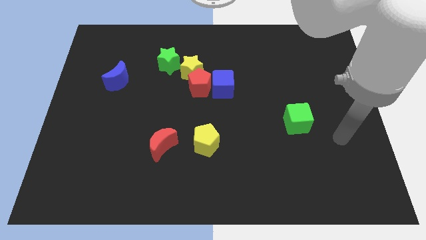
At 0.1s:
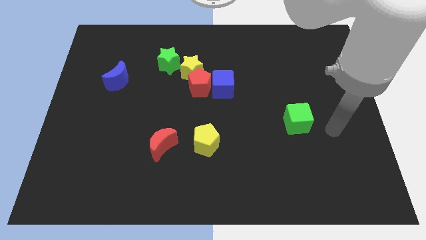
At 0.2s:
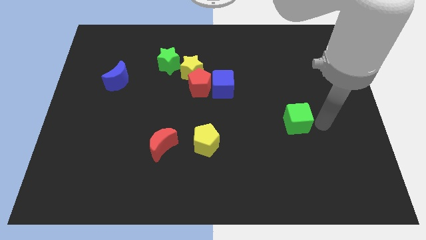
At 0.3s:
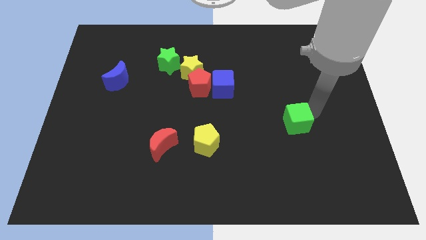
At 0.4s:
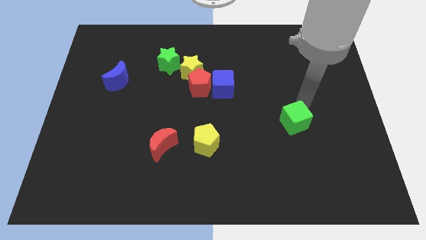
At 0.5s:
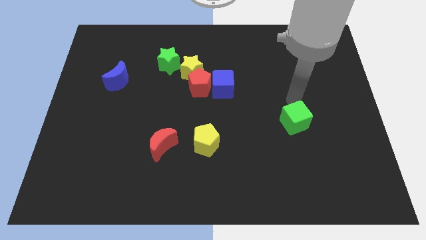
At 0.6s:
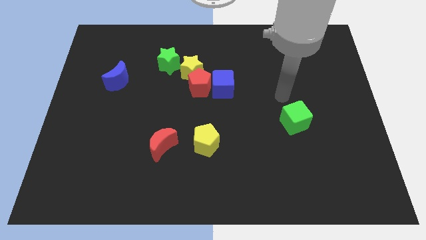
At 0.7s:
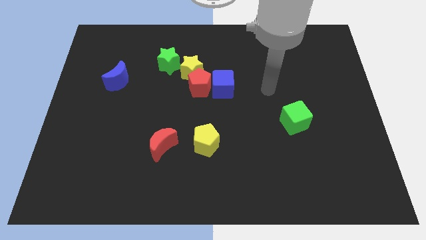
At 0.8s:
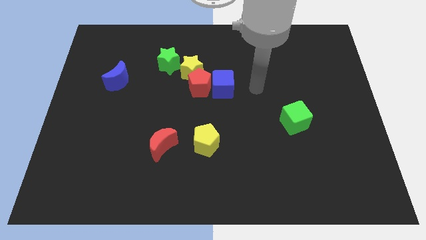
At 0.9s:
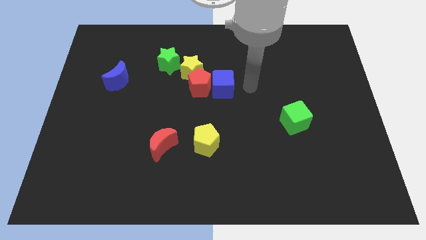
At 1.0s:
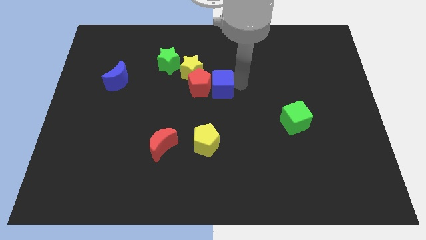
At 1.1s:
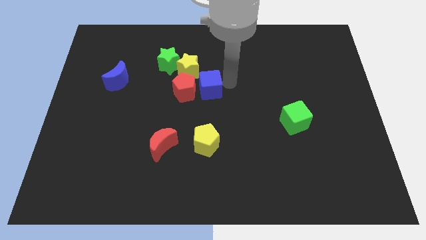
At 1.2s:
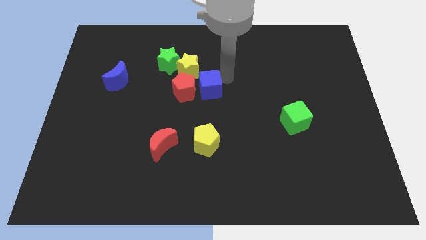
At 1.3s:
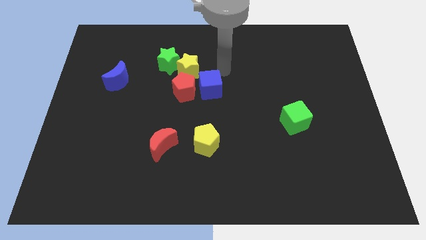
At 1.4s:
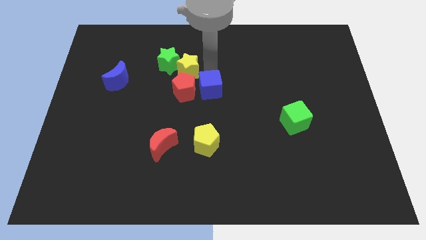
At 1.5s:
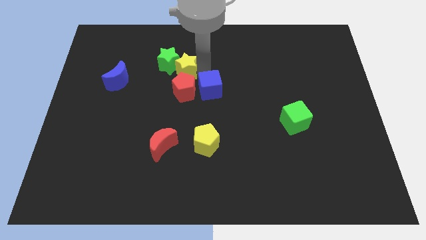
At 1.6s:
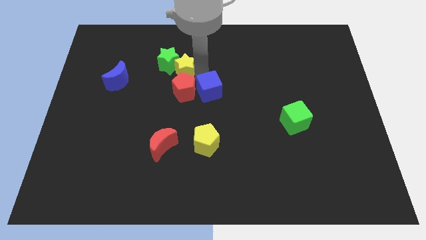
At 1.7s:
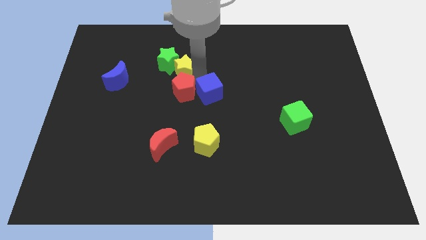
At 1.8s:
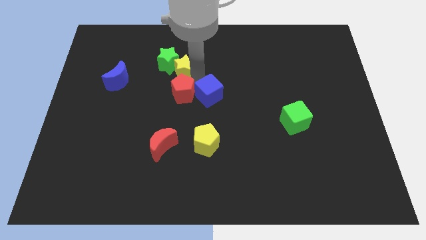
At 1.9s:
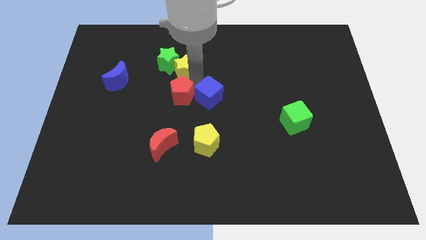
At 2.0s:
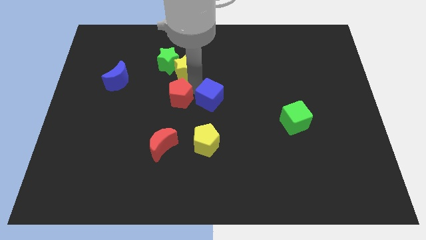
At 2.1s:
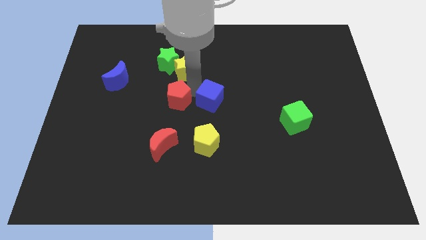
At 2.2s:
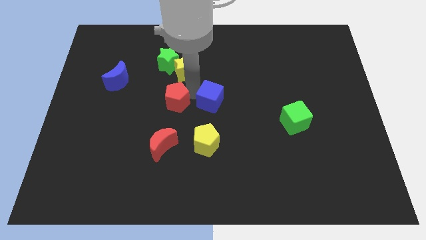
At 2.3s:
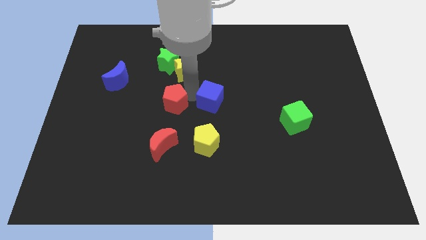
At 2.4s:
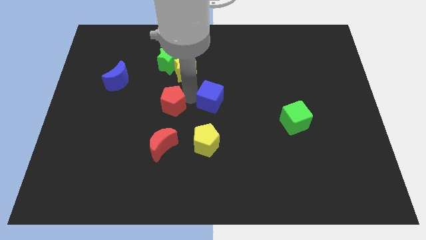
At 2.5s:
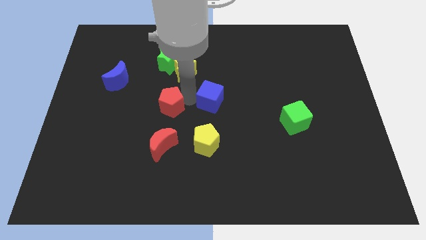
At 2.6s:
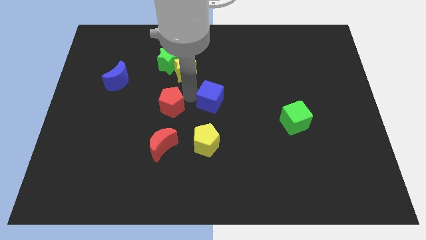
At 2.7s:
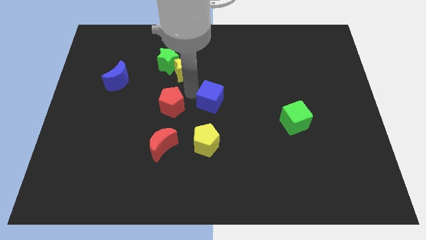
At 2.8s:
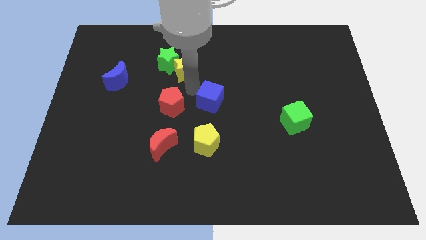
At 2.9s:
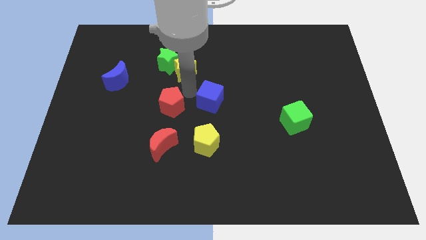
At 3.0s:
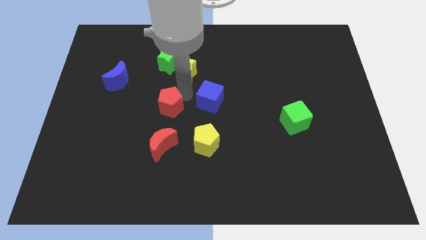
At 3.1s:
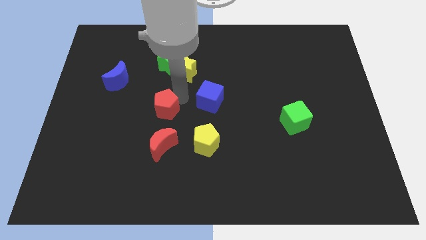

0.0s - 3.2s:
separate the red pentagon from the blue cube and yellow star

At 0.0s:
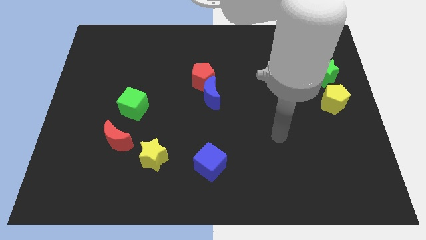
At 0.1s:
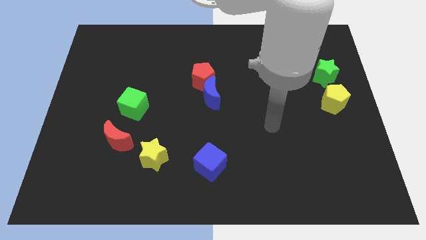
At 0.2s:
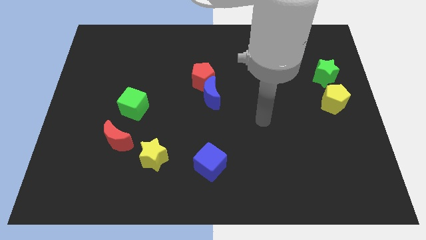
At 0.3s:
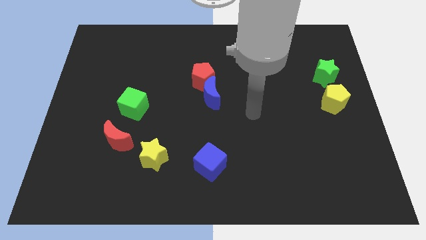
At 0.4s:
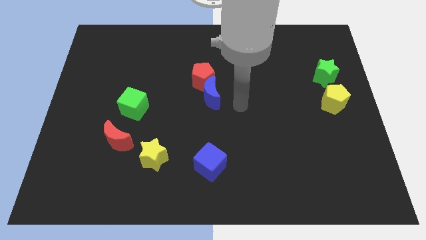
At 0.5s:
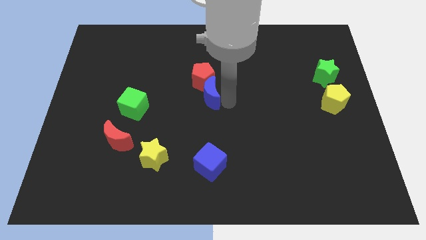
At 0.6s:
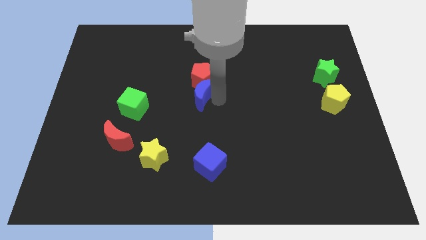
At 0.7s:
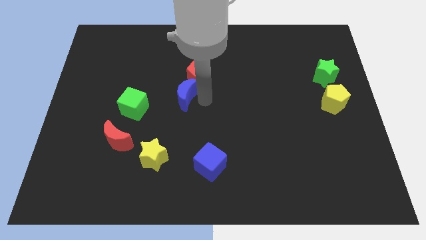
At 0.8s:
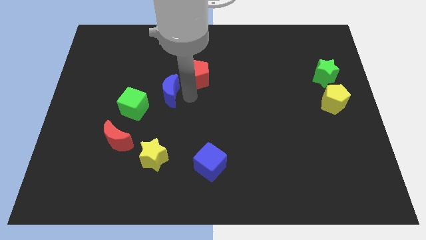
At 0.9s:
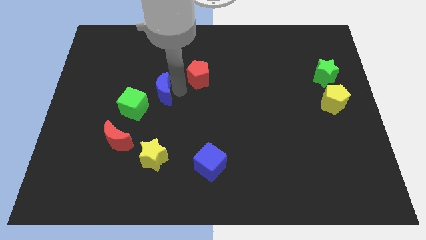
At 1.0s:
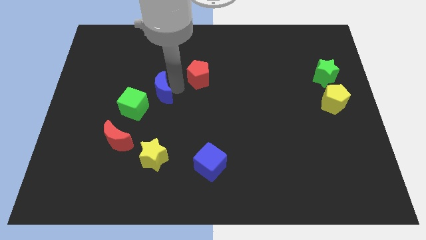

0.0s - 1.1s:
move the red pentagon away from the blue moon

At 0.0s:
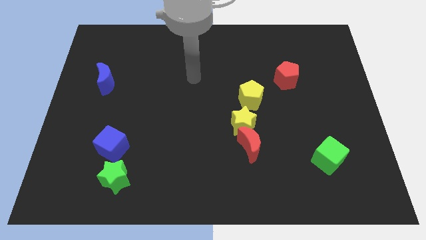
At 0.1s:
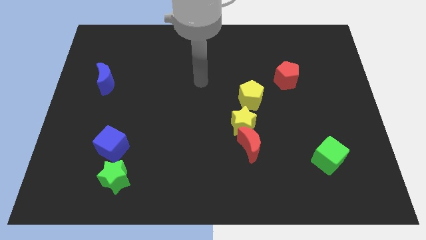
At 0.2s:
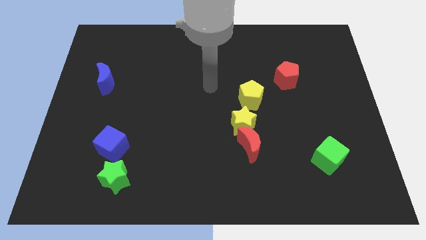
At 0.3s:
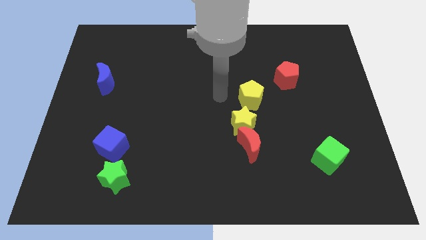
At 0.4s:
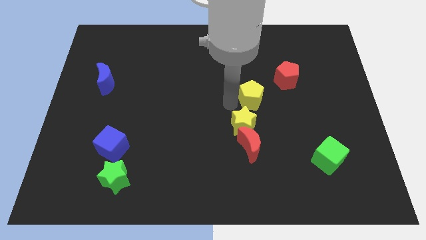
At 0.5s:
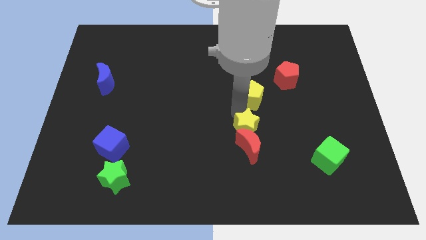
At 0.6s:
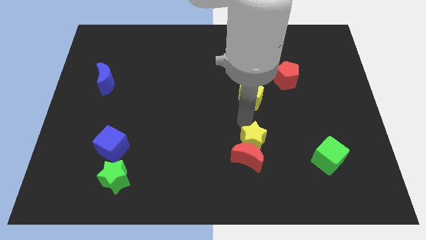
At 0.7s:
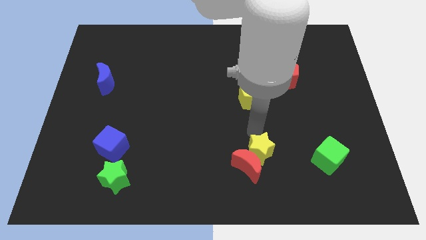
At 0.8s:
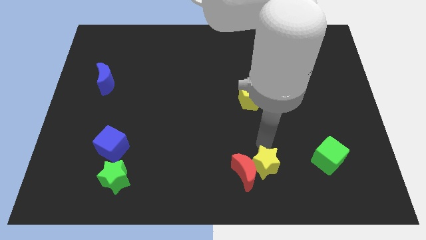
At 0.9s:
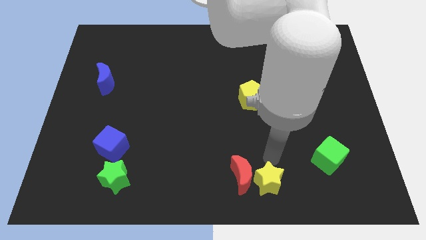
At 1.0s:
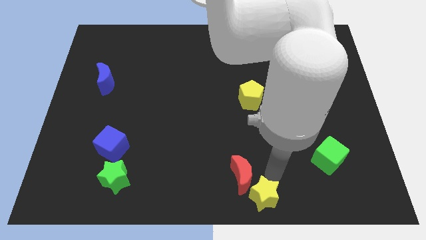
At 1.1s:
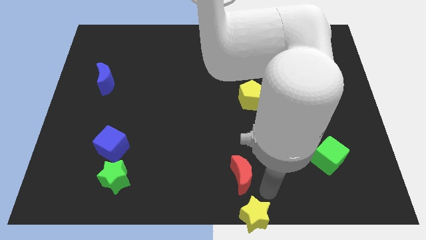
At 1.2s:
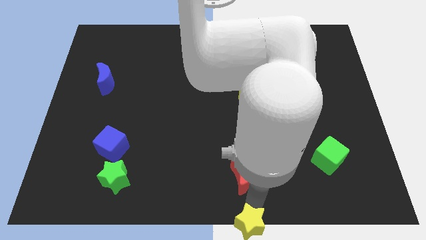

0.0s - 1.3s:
pull the red moon apart from the yellow star

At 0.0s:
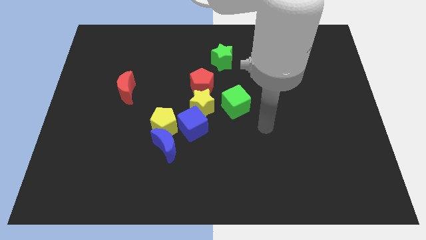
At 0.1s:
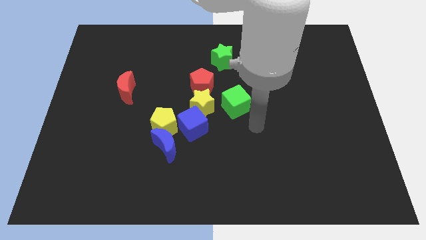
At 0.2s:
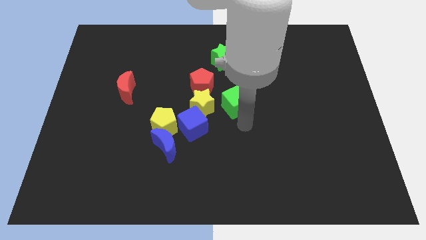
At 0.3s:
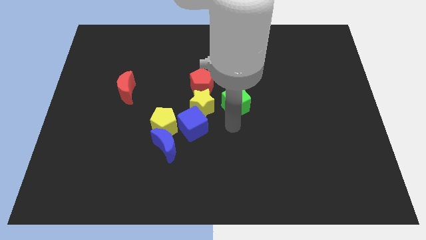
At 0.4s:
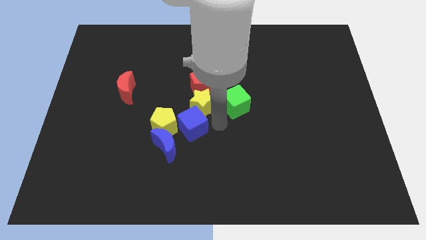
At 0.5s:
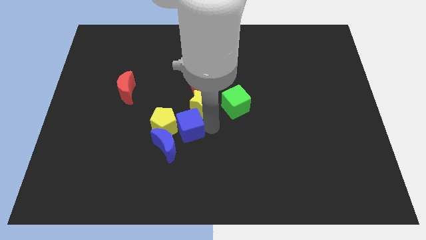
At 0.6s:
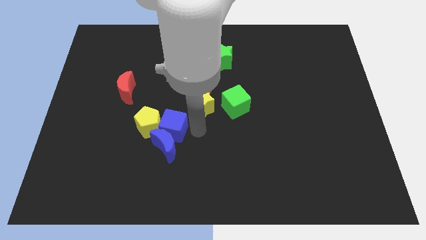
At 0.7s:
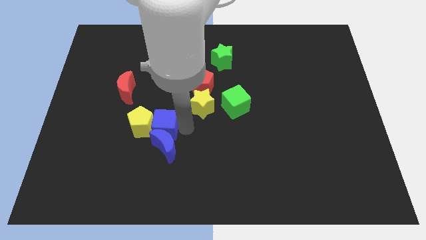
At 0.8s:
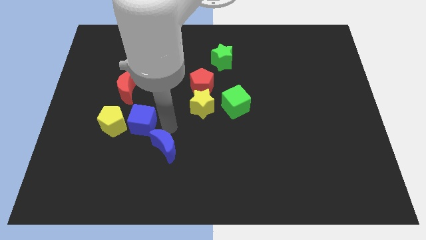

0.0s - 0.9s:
move the blue moon away from the yellow pentagon and blue cube

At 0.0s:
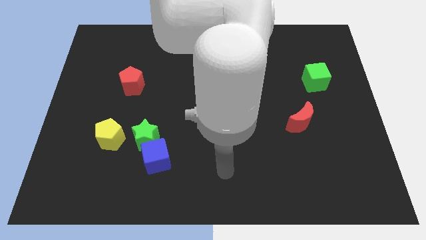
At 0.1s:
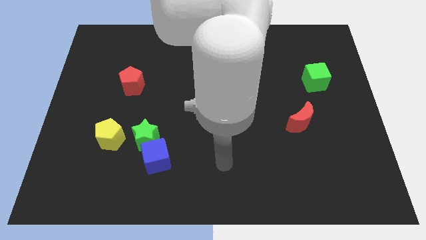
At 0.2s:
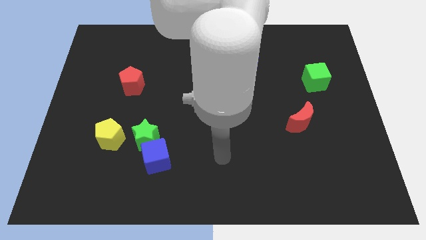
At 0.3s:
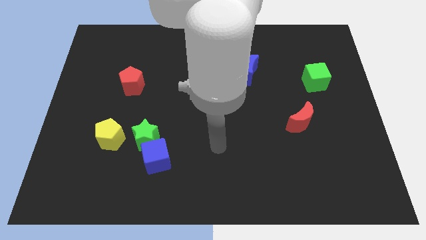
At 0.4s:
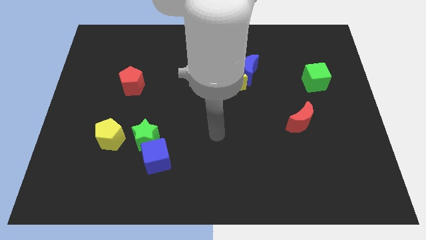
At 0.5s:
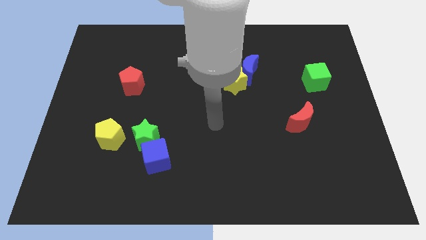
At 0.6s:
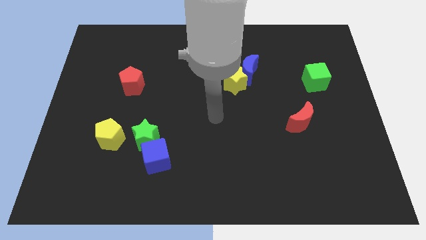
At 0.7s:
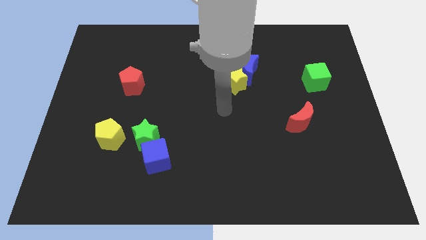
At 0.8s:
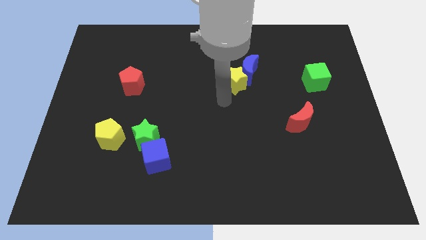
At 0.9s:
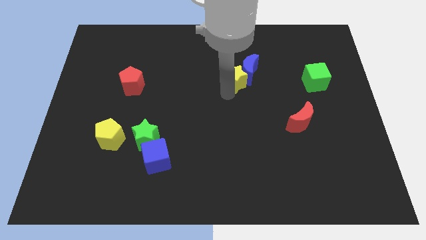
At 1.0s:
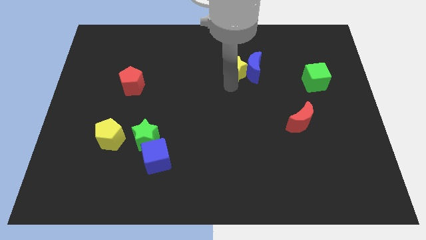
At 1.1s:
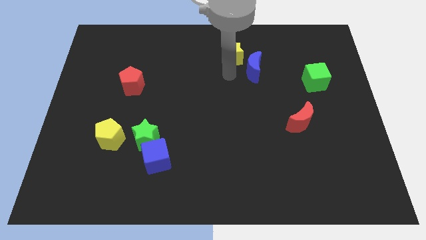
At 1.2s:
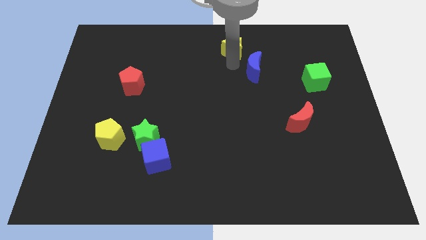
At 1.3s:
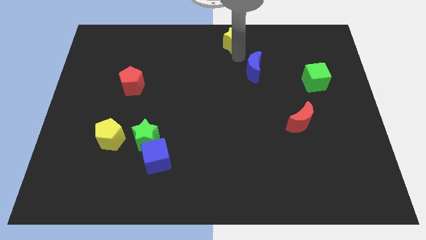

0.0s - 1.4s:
move the blue moon away from the yellow star

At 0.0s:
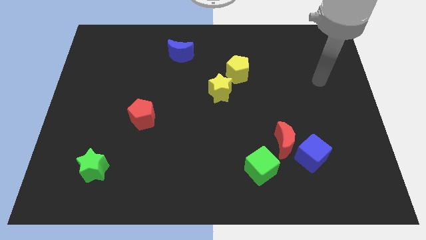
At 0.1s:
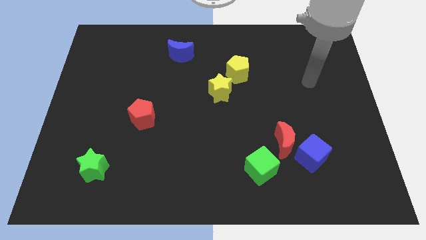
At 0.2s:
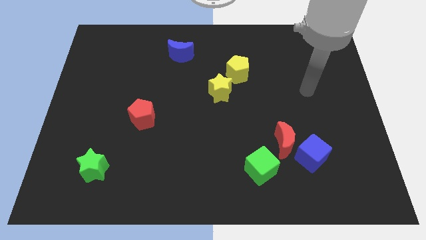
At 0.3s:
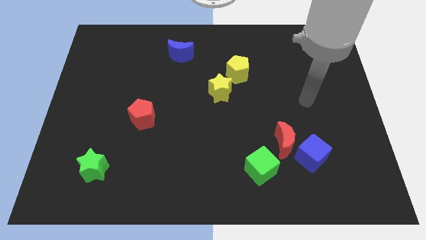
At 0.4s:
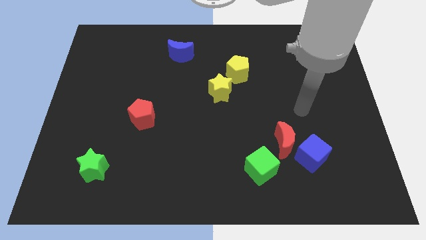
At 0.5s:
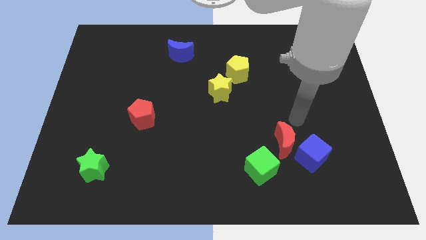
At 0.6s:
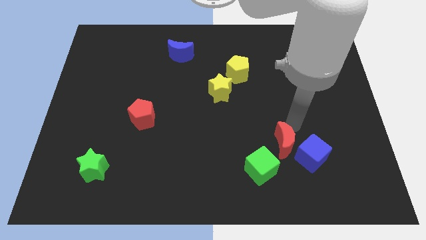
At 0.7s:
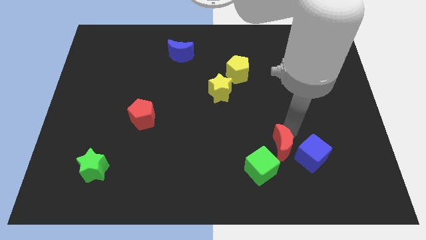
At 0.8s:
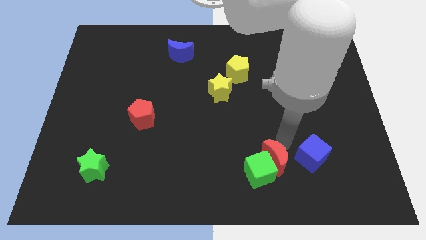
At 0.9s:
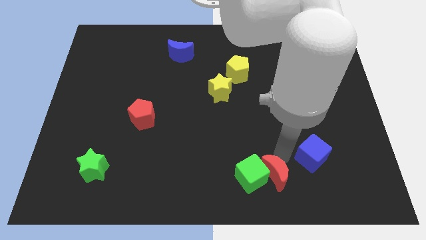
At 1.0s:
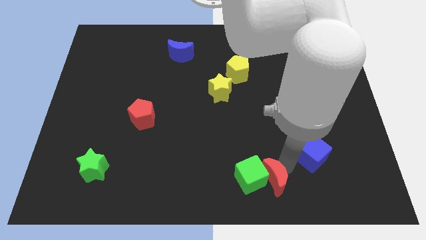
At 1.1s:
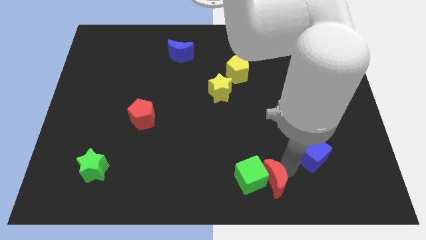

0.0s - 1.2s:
separate the blue cube from the red moon

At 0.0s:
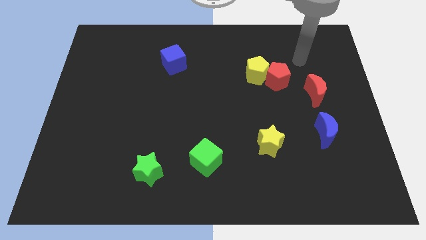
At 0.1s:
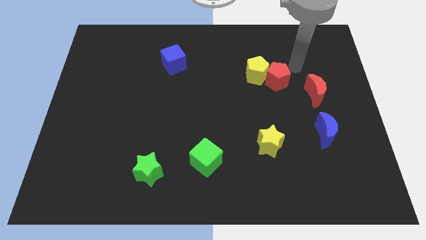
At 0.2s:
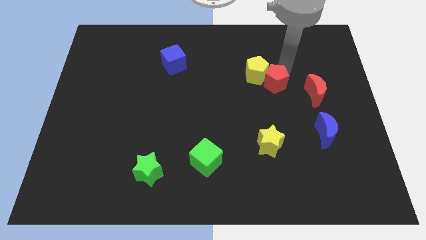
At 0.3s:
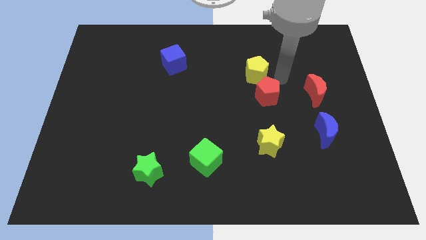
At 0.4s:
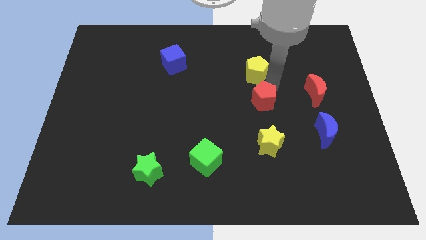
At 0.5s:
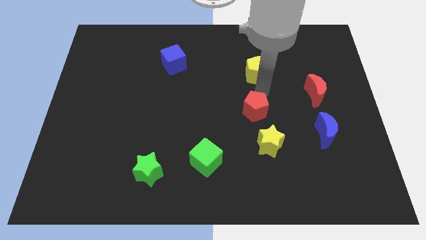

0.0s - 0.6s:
separate the yellow pentagon from the red pentagon
